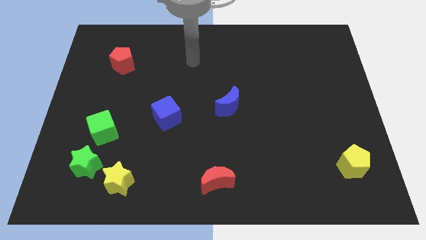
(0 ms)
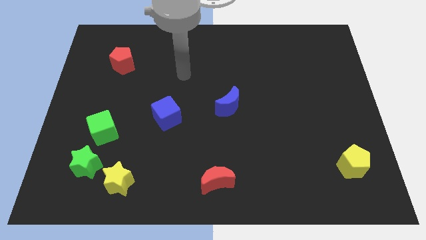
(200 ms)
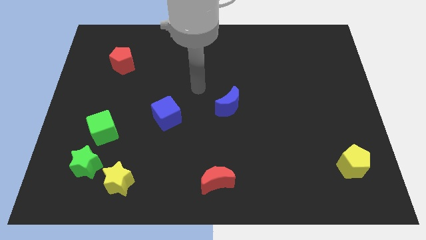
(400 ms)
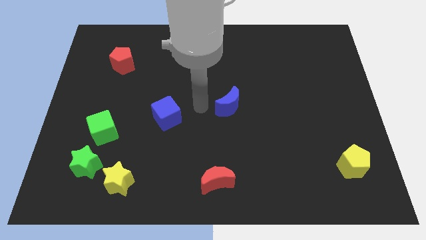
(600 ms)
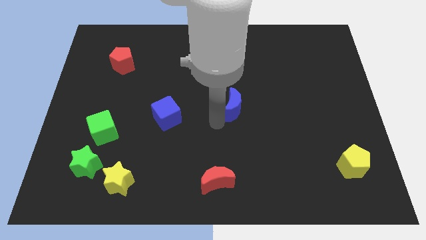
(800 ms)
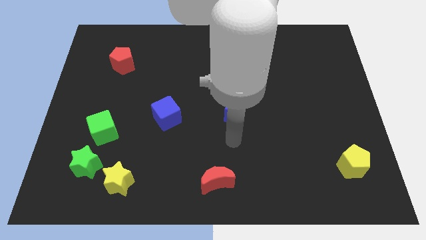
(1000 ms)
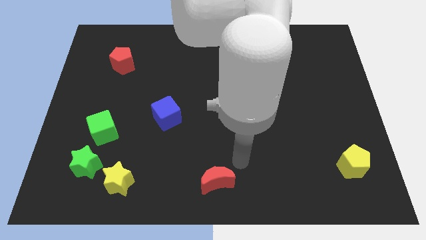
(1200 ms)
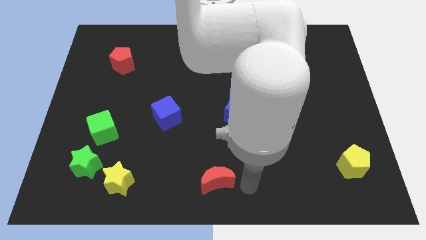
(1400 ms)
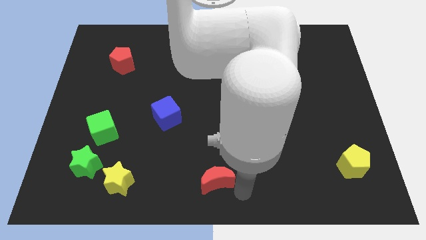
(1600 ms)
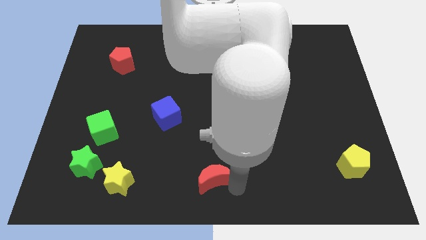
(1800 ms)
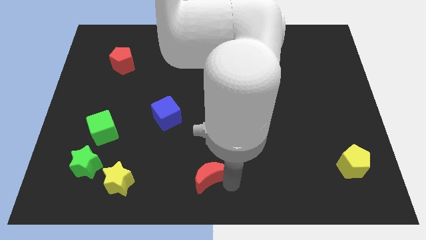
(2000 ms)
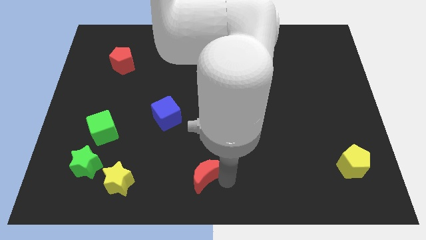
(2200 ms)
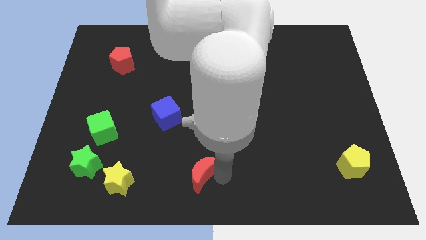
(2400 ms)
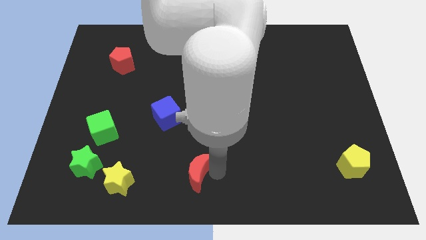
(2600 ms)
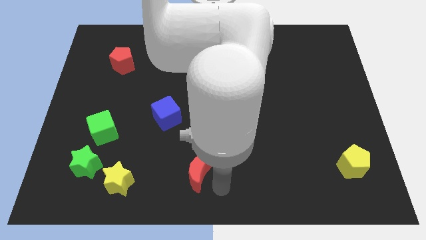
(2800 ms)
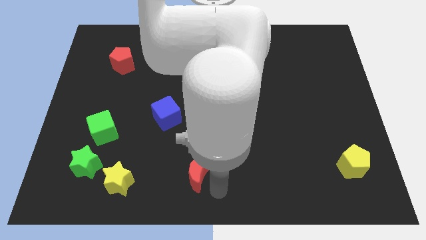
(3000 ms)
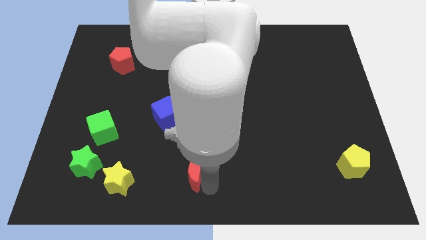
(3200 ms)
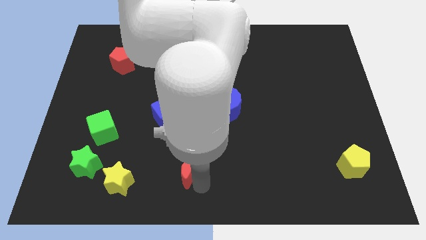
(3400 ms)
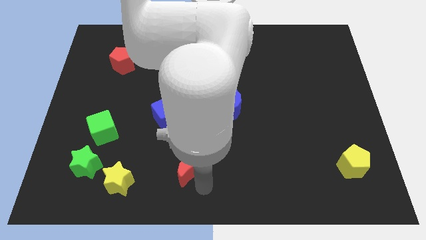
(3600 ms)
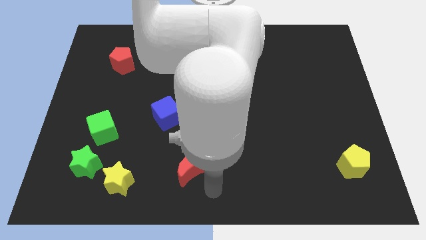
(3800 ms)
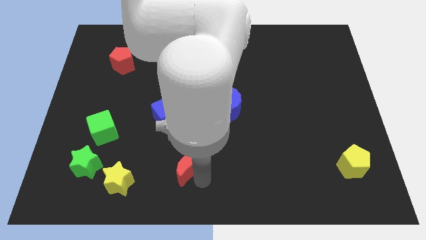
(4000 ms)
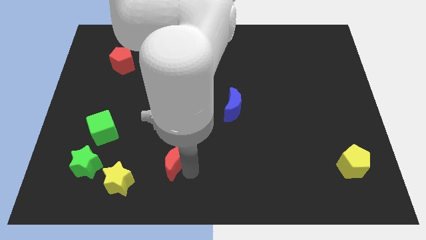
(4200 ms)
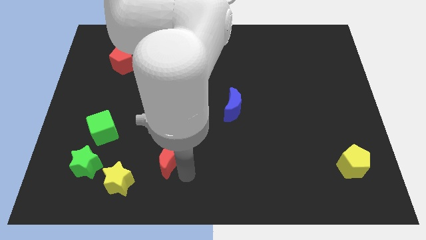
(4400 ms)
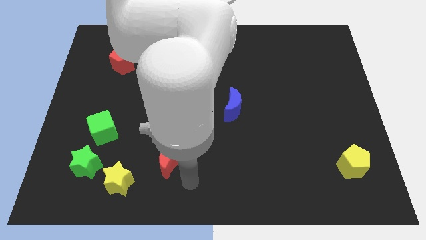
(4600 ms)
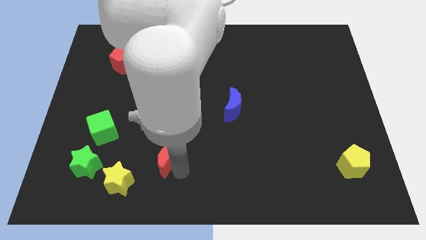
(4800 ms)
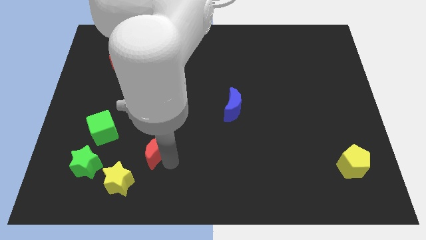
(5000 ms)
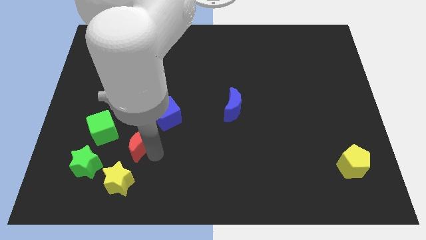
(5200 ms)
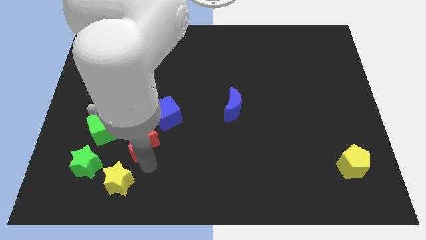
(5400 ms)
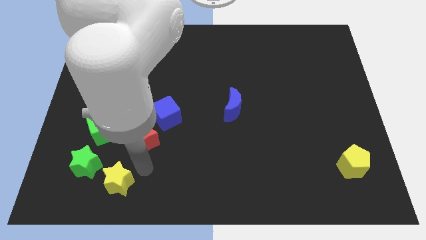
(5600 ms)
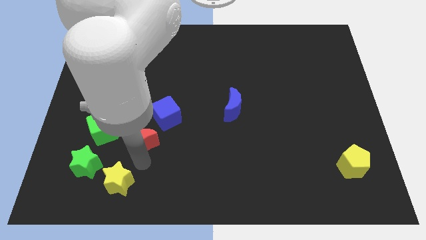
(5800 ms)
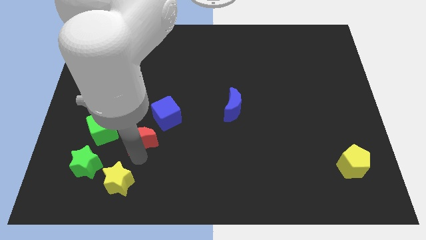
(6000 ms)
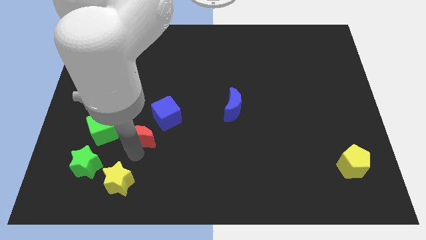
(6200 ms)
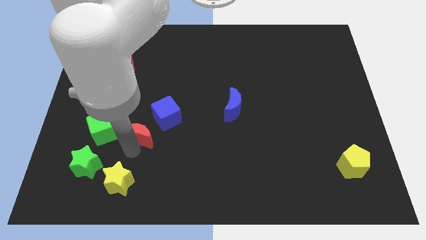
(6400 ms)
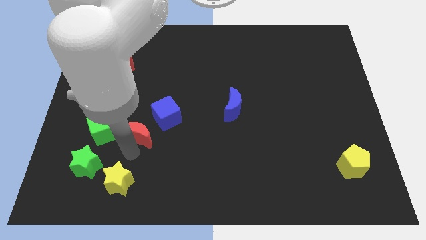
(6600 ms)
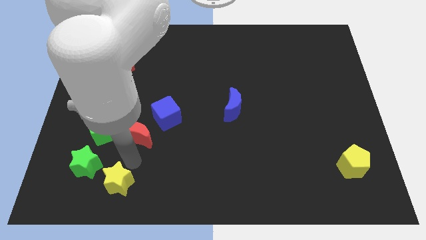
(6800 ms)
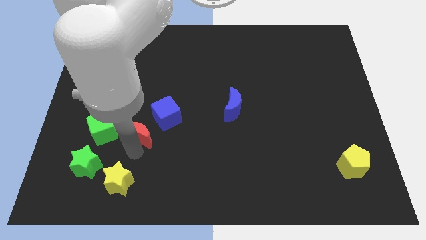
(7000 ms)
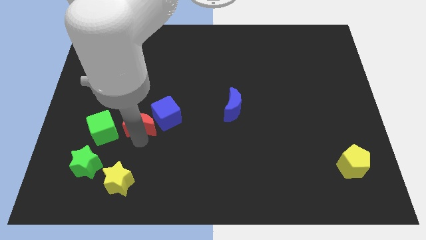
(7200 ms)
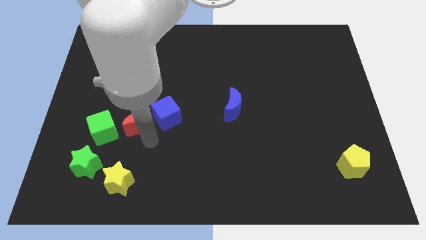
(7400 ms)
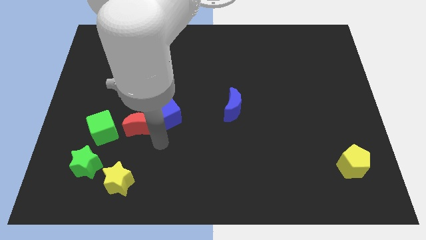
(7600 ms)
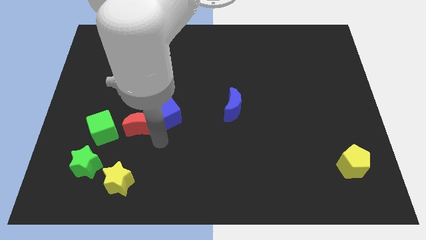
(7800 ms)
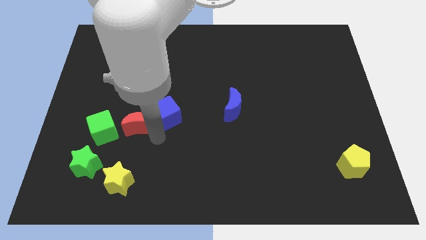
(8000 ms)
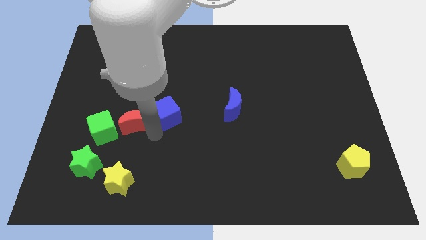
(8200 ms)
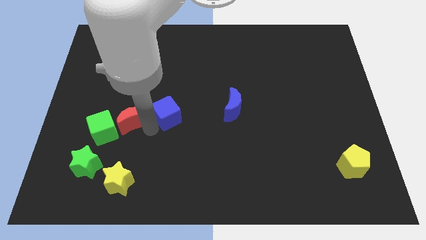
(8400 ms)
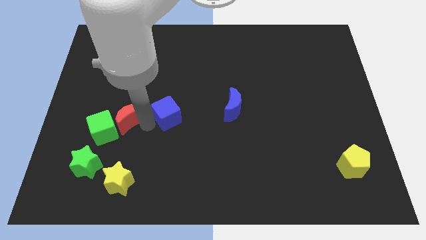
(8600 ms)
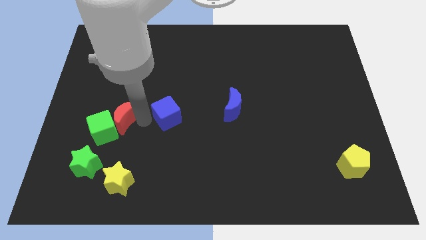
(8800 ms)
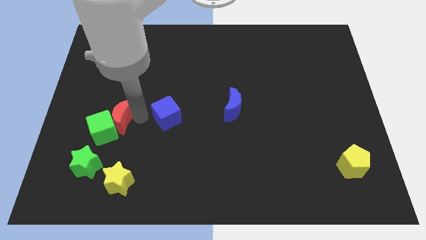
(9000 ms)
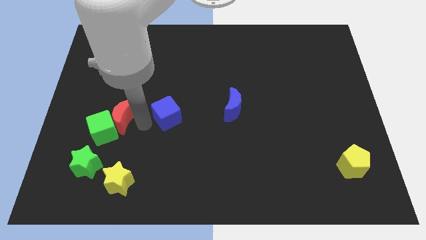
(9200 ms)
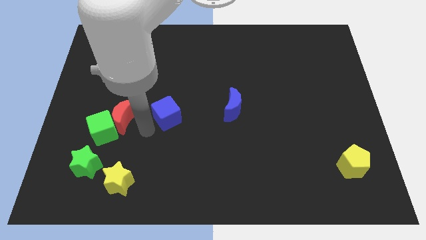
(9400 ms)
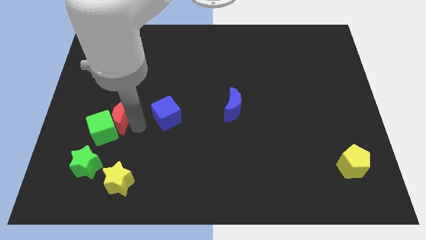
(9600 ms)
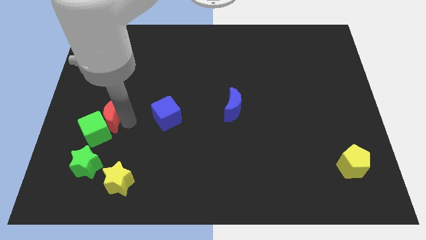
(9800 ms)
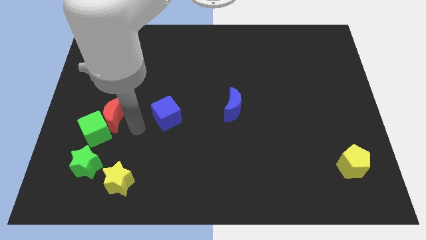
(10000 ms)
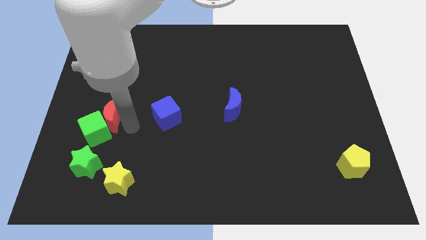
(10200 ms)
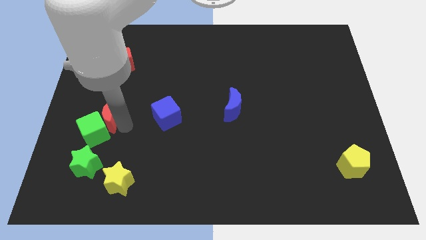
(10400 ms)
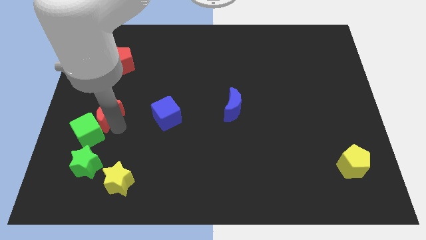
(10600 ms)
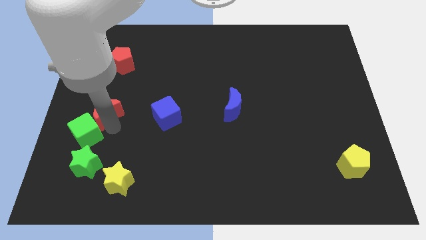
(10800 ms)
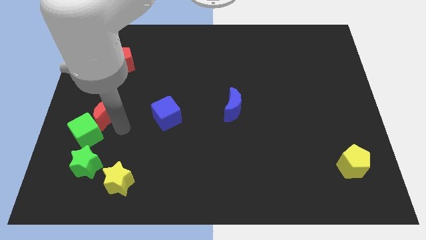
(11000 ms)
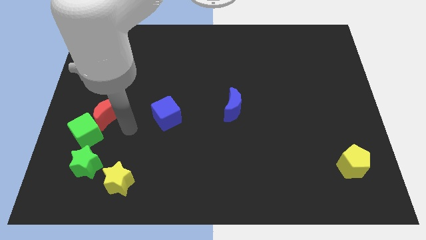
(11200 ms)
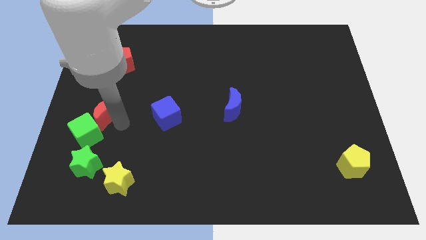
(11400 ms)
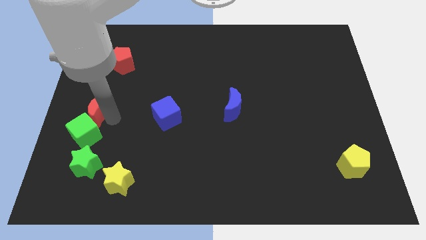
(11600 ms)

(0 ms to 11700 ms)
move the red moon to the center left

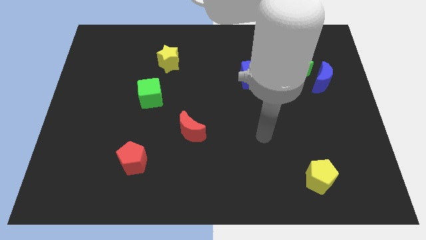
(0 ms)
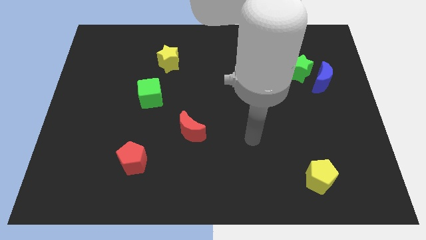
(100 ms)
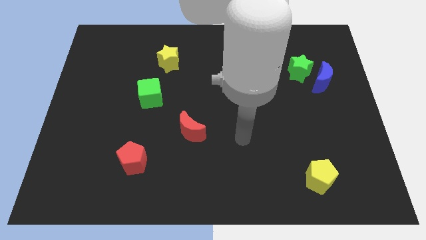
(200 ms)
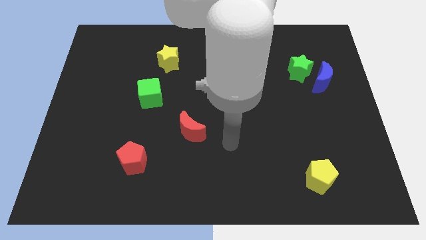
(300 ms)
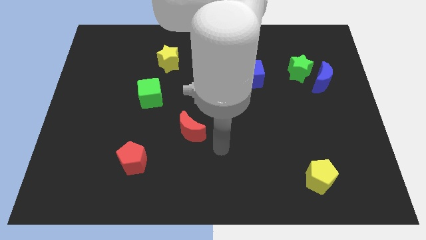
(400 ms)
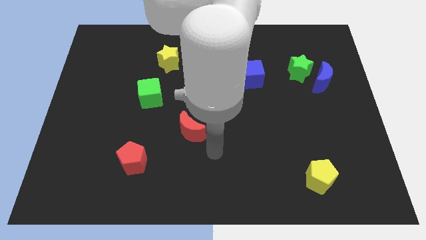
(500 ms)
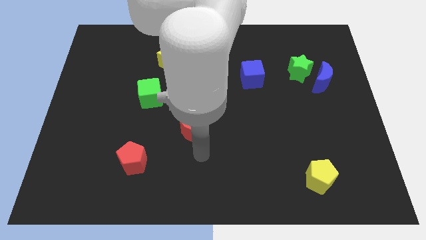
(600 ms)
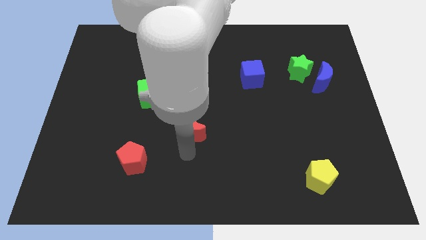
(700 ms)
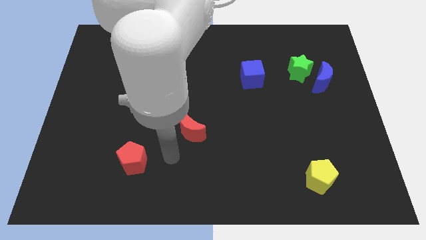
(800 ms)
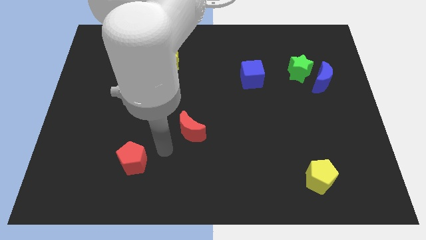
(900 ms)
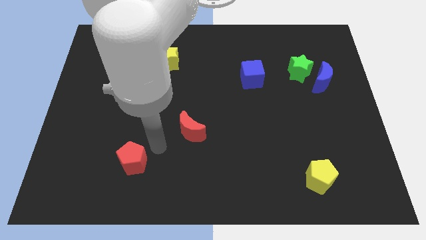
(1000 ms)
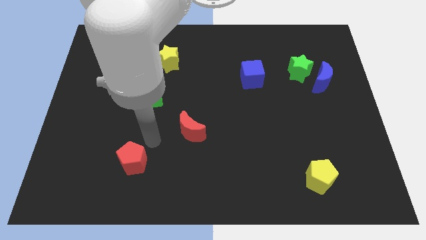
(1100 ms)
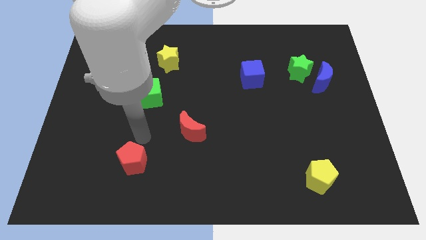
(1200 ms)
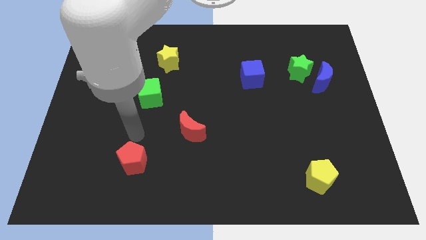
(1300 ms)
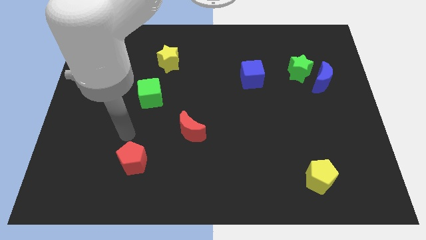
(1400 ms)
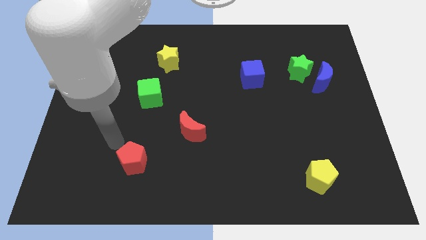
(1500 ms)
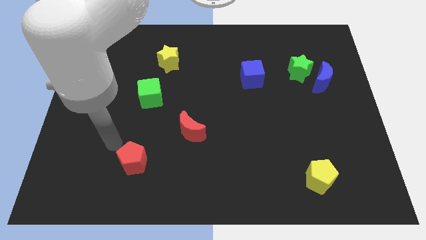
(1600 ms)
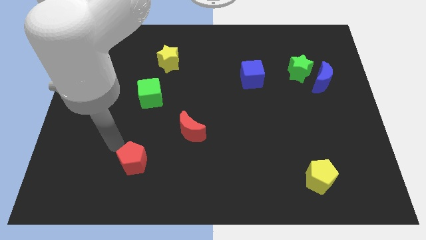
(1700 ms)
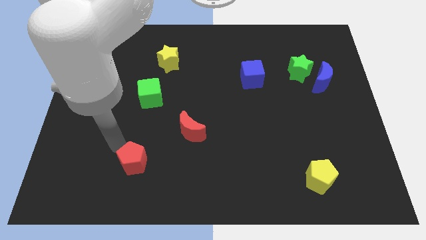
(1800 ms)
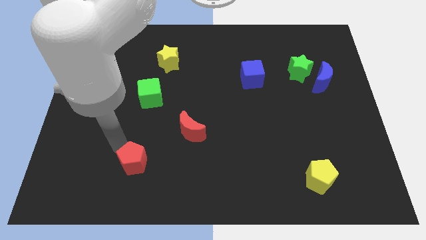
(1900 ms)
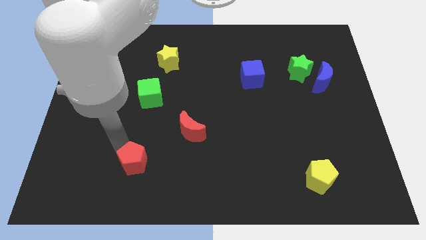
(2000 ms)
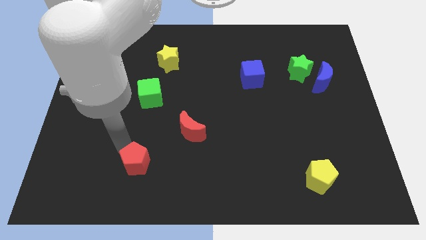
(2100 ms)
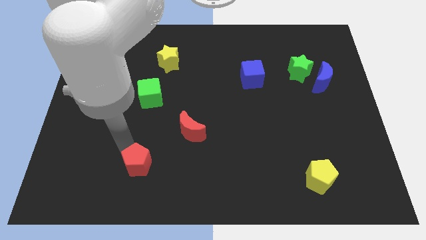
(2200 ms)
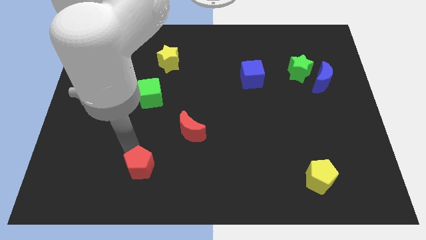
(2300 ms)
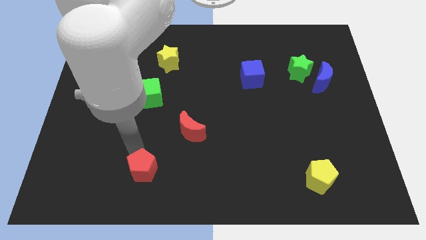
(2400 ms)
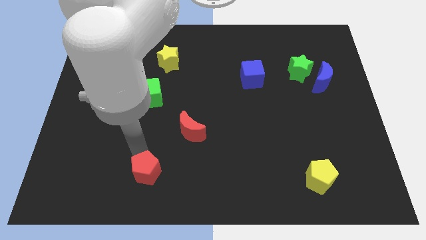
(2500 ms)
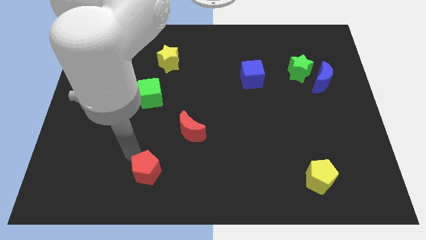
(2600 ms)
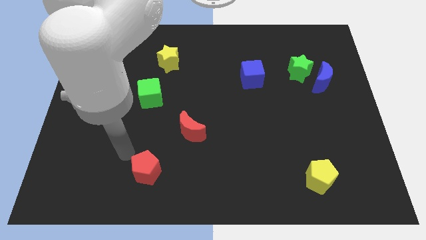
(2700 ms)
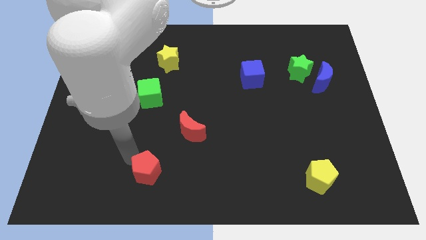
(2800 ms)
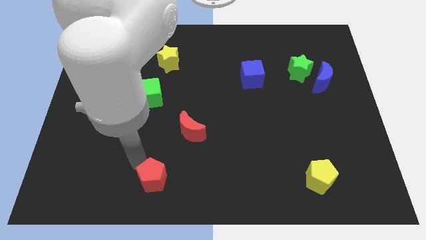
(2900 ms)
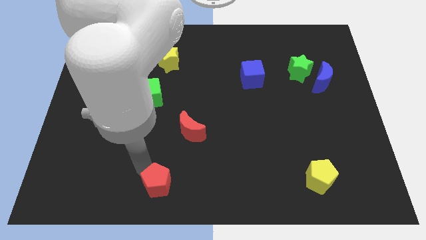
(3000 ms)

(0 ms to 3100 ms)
slide the red pentagon to the bottom
